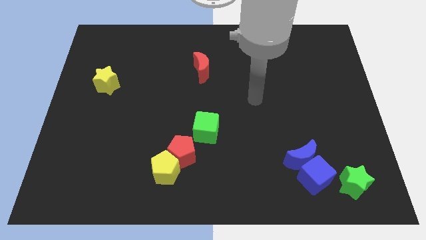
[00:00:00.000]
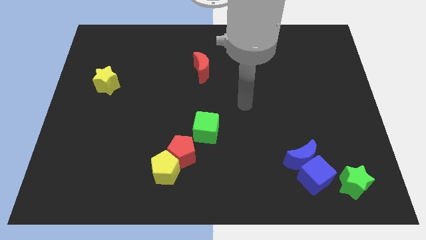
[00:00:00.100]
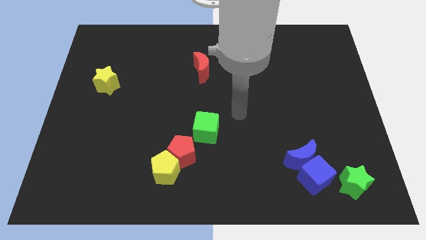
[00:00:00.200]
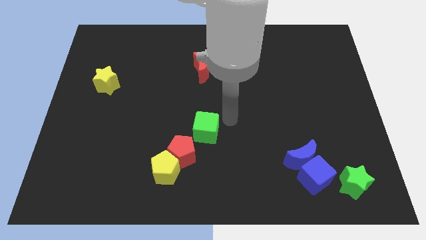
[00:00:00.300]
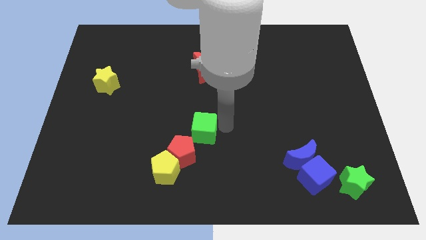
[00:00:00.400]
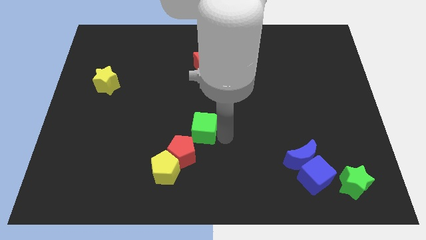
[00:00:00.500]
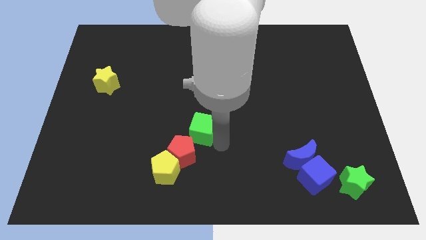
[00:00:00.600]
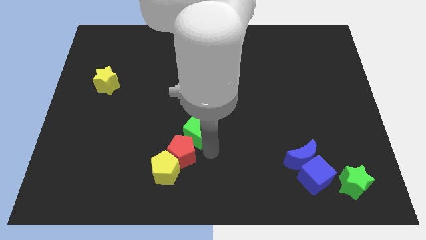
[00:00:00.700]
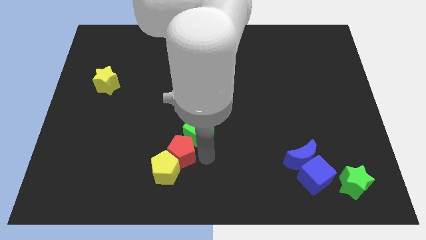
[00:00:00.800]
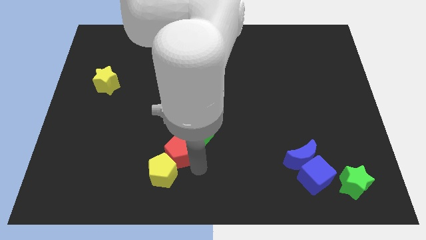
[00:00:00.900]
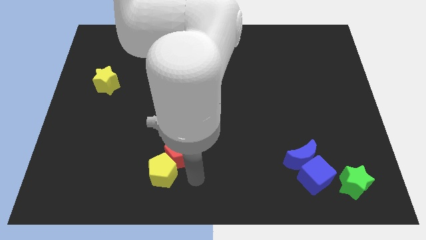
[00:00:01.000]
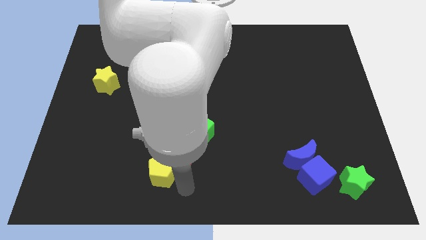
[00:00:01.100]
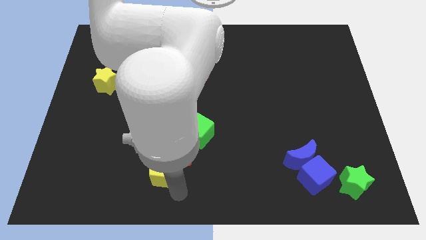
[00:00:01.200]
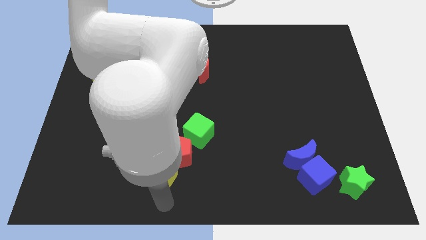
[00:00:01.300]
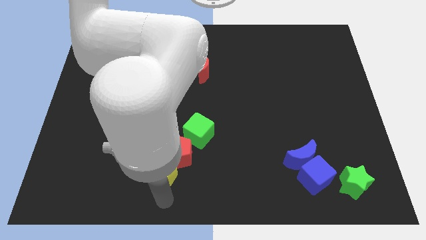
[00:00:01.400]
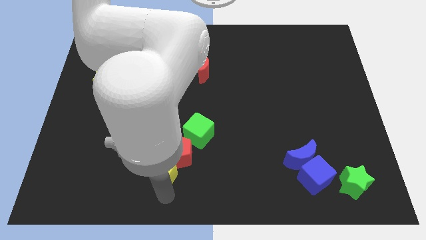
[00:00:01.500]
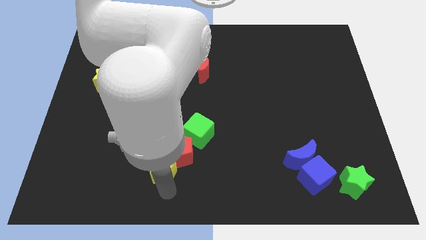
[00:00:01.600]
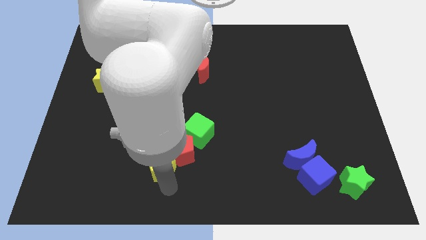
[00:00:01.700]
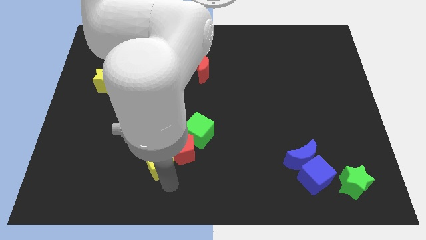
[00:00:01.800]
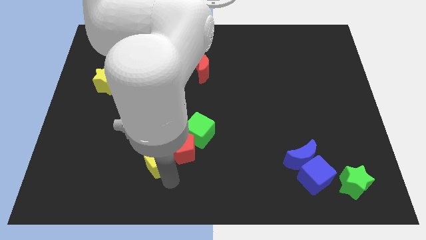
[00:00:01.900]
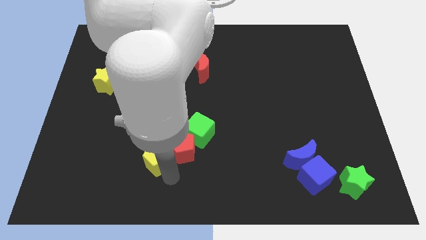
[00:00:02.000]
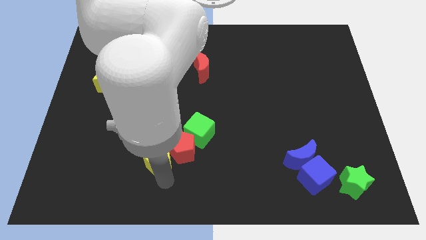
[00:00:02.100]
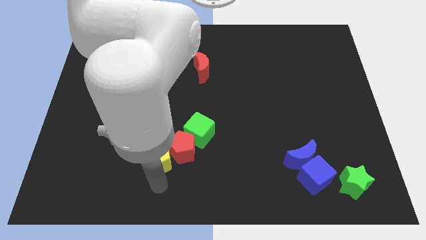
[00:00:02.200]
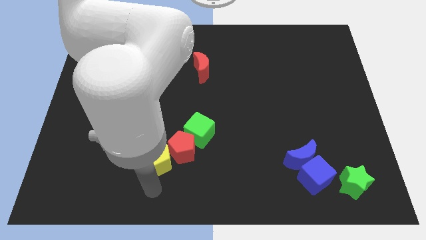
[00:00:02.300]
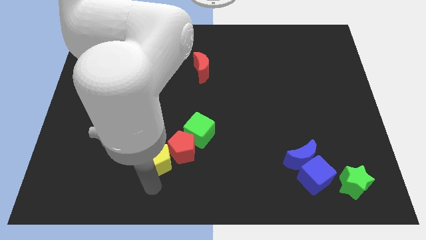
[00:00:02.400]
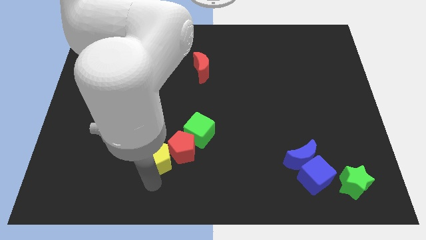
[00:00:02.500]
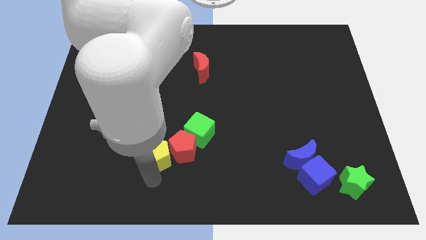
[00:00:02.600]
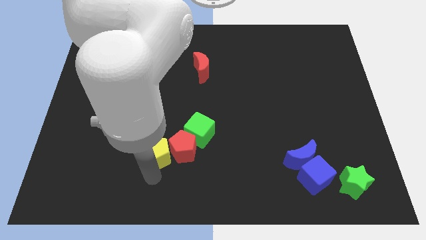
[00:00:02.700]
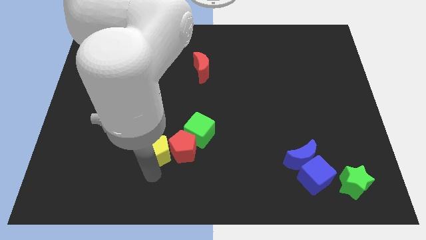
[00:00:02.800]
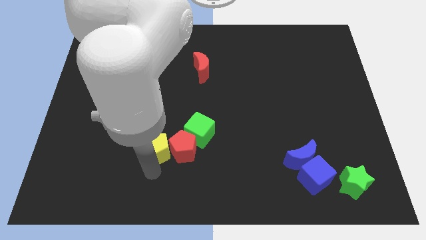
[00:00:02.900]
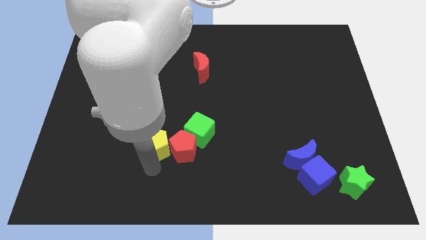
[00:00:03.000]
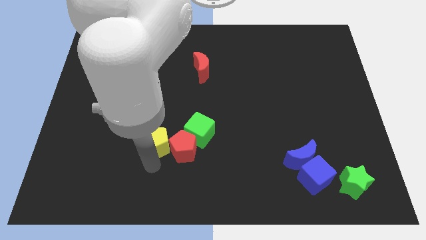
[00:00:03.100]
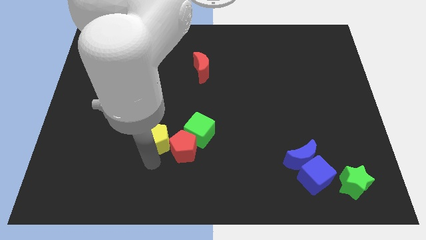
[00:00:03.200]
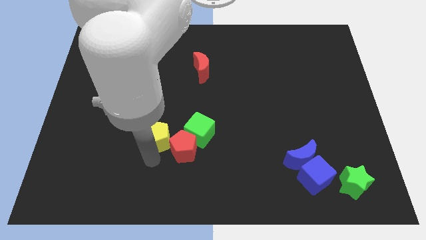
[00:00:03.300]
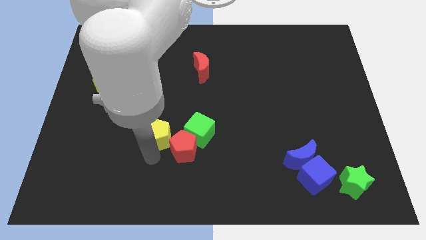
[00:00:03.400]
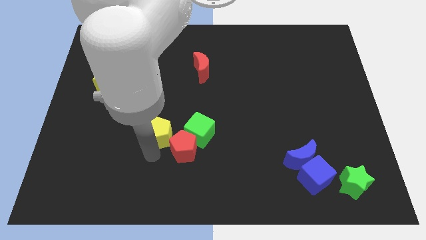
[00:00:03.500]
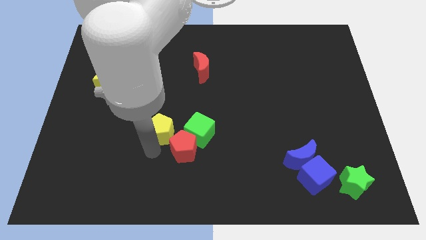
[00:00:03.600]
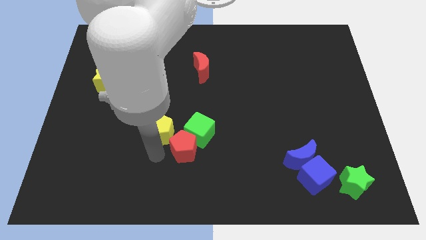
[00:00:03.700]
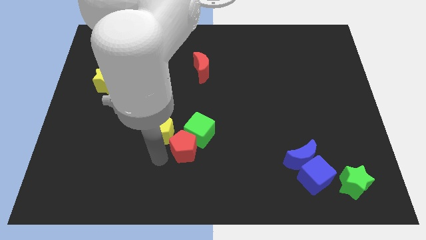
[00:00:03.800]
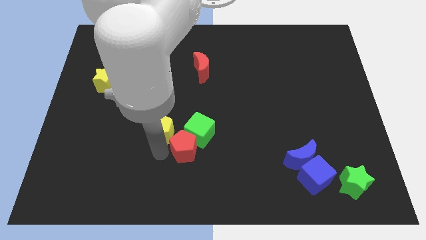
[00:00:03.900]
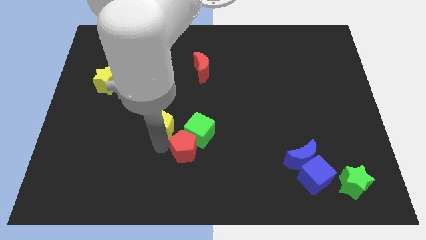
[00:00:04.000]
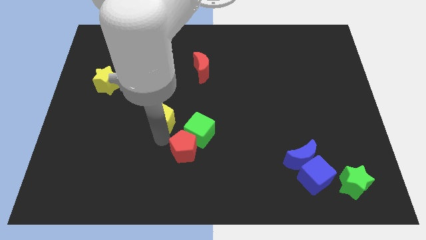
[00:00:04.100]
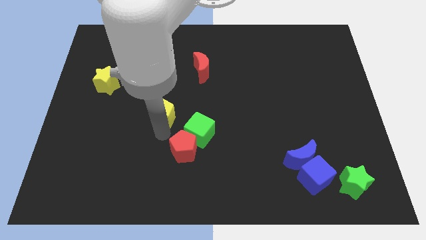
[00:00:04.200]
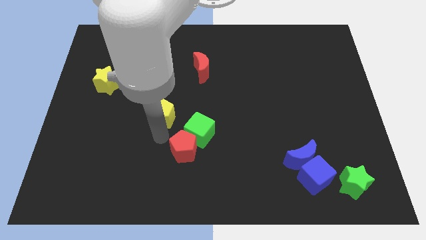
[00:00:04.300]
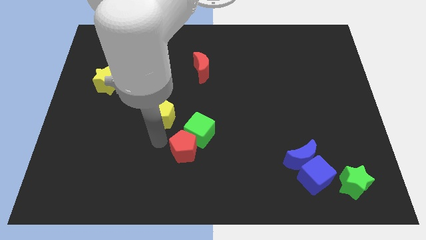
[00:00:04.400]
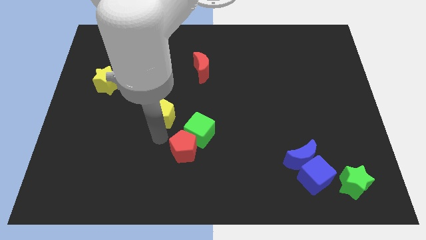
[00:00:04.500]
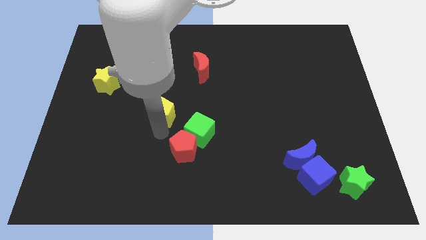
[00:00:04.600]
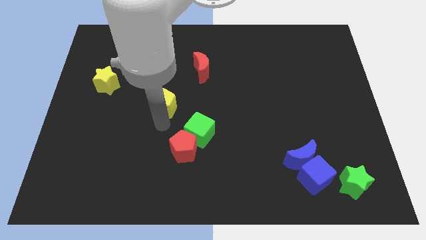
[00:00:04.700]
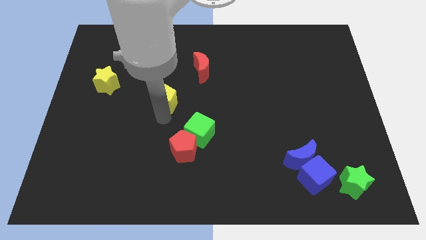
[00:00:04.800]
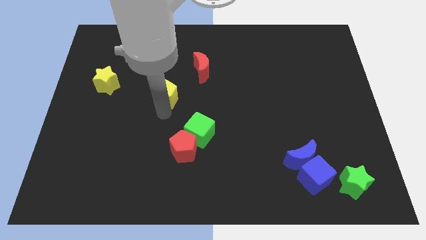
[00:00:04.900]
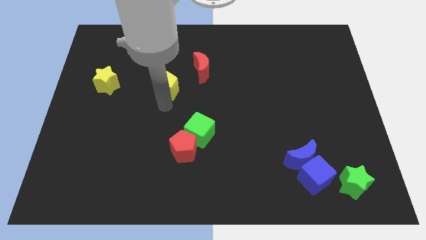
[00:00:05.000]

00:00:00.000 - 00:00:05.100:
slide the yellow pentagon up

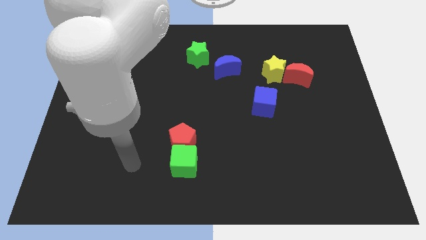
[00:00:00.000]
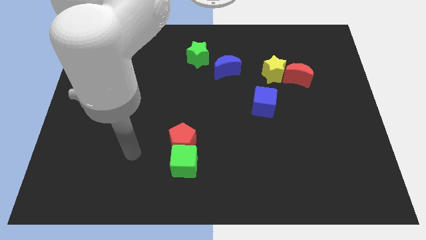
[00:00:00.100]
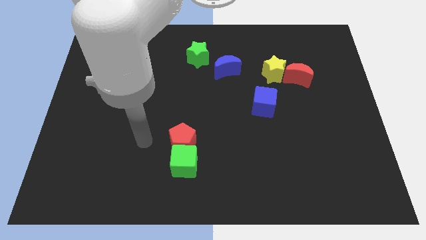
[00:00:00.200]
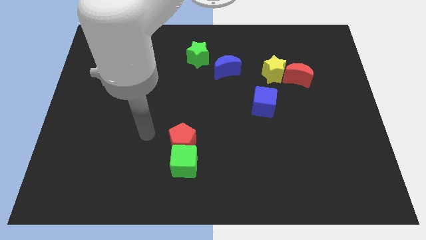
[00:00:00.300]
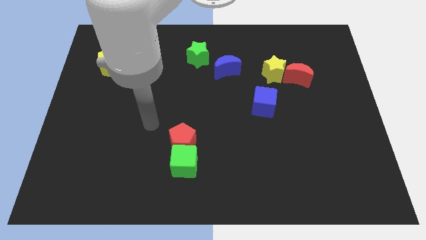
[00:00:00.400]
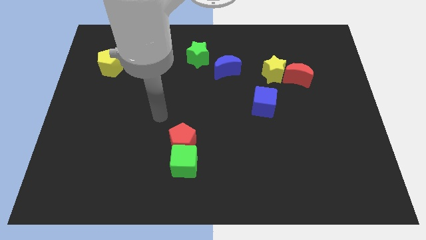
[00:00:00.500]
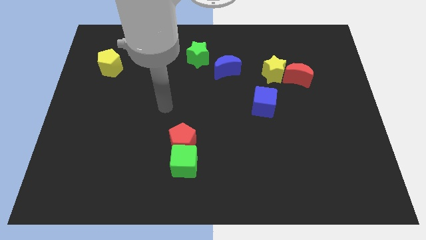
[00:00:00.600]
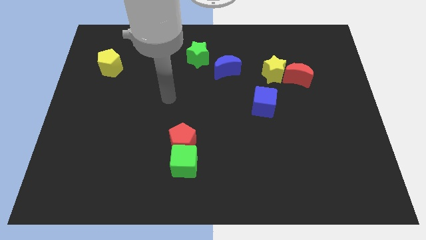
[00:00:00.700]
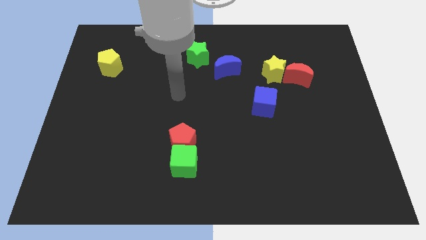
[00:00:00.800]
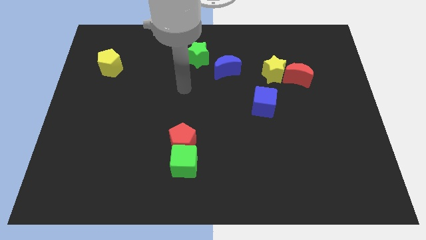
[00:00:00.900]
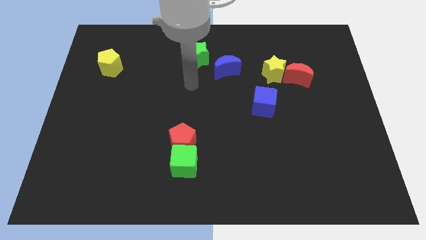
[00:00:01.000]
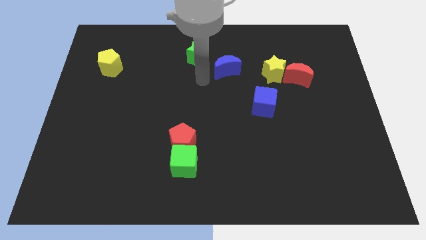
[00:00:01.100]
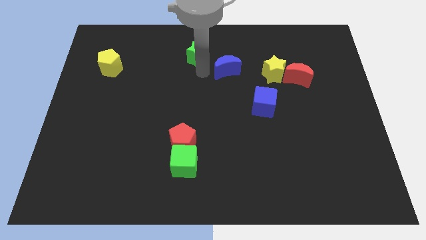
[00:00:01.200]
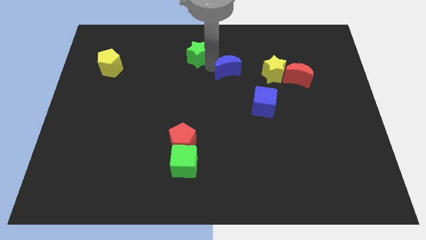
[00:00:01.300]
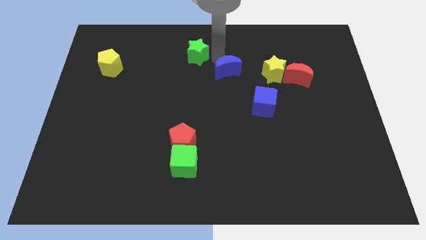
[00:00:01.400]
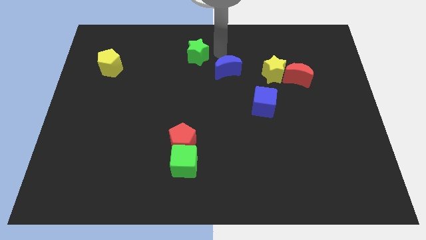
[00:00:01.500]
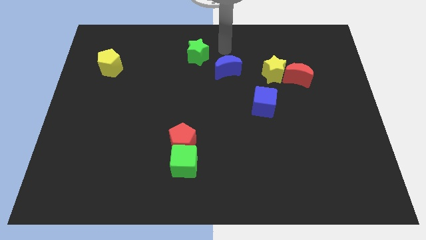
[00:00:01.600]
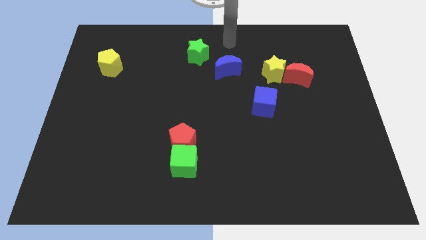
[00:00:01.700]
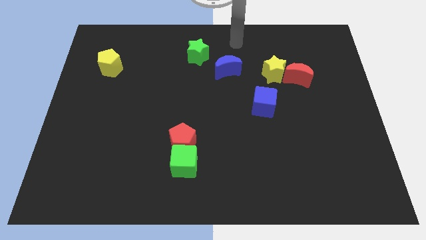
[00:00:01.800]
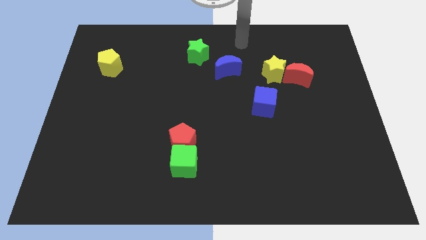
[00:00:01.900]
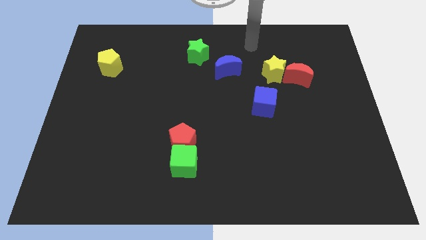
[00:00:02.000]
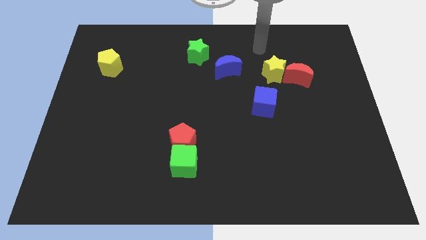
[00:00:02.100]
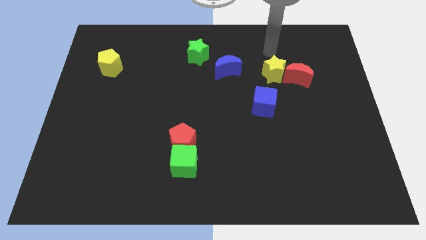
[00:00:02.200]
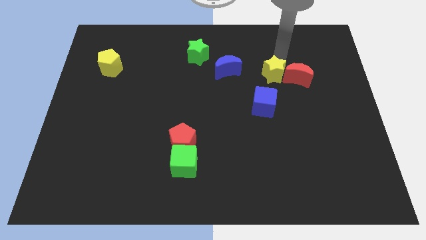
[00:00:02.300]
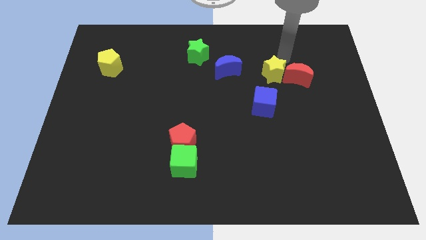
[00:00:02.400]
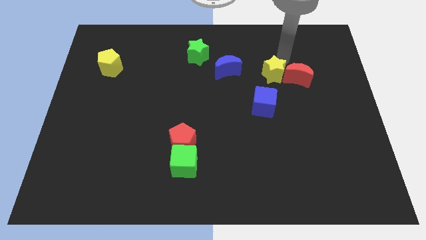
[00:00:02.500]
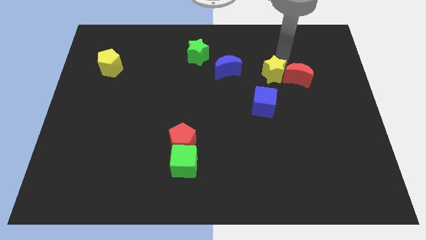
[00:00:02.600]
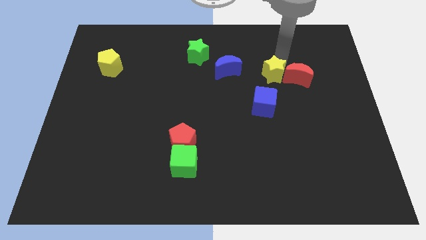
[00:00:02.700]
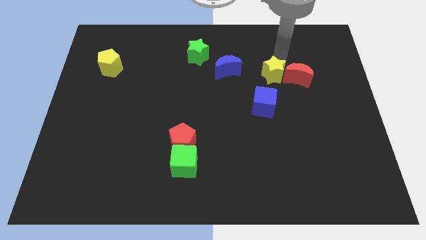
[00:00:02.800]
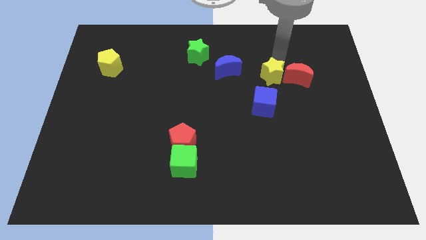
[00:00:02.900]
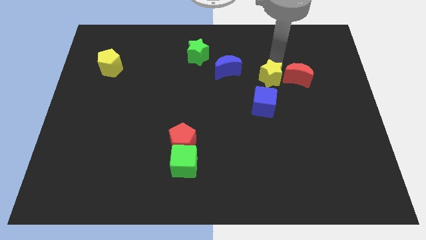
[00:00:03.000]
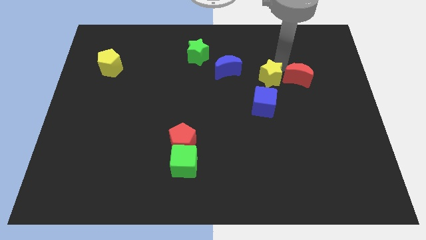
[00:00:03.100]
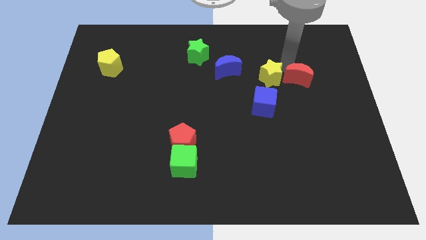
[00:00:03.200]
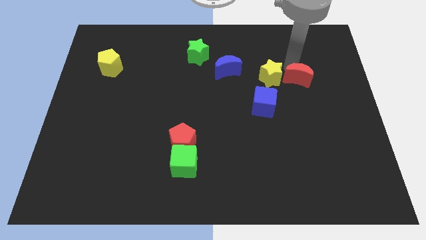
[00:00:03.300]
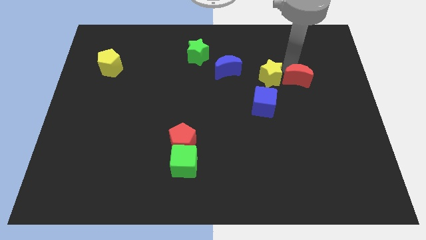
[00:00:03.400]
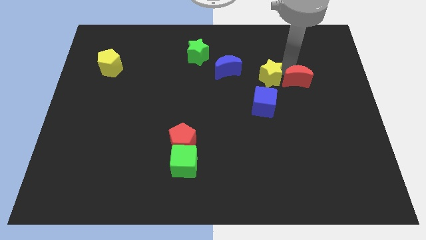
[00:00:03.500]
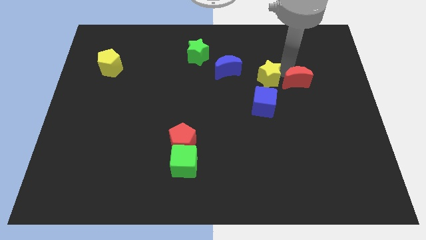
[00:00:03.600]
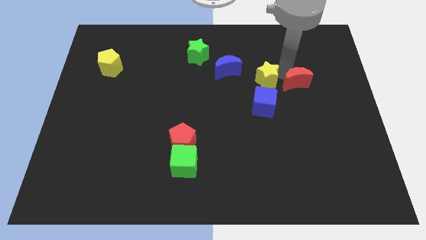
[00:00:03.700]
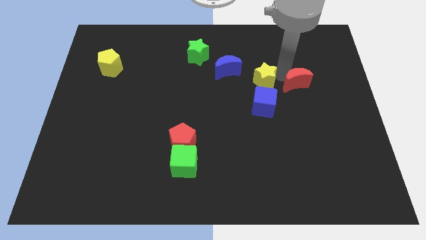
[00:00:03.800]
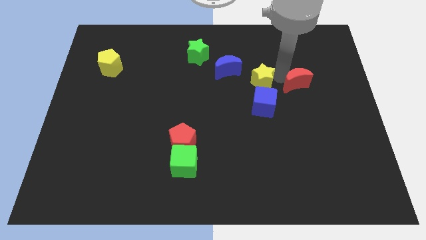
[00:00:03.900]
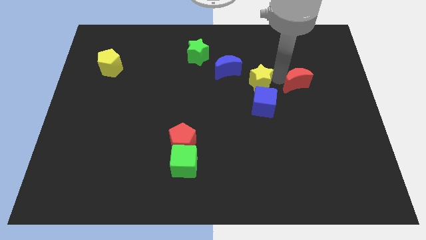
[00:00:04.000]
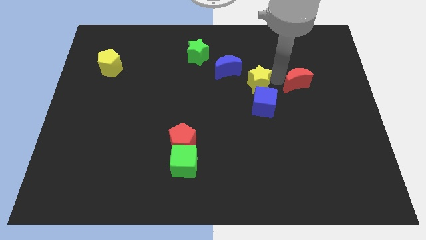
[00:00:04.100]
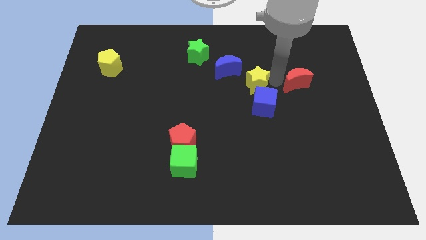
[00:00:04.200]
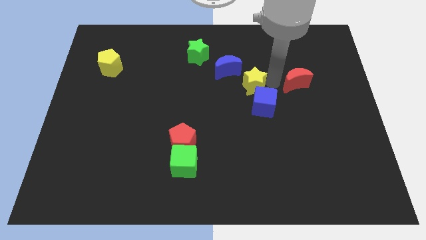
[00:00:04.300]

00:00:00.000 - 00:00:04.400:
push the yellow star a little bit downwards and left
